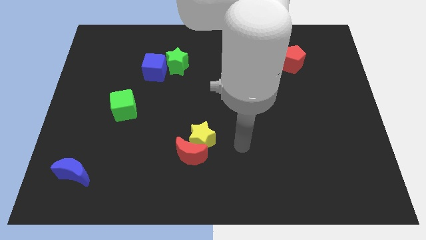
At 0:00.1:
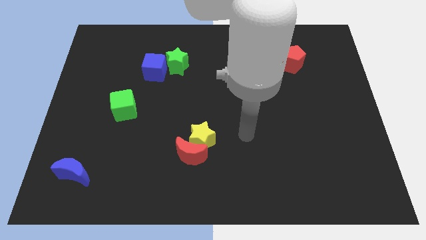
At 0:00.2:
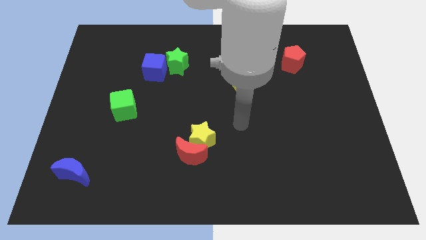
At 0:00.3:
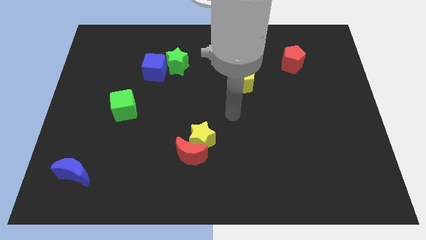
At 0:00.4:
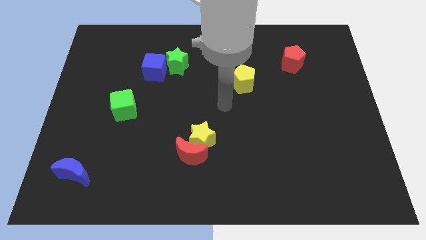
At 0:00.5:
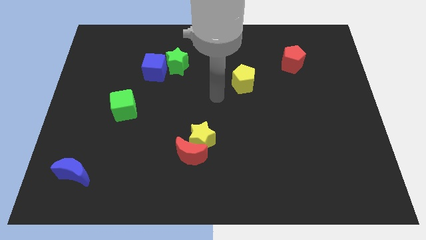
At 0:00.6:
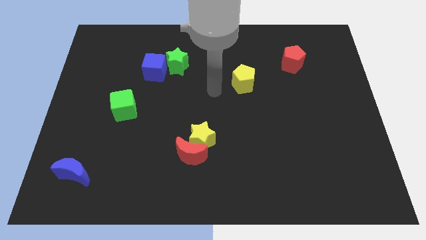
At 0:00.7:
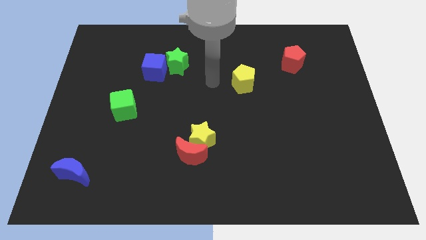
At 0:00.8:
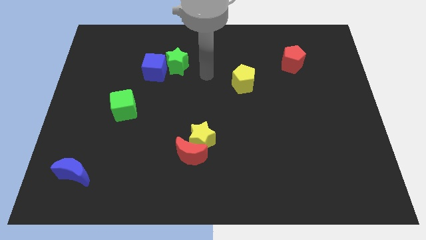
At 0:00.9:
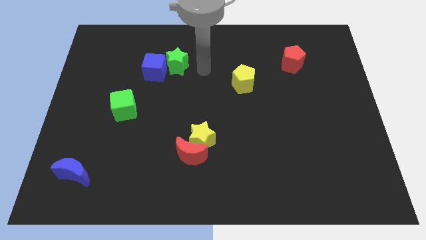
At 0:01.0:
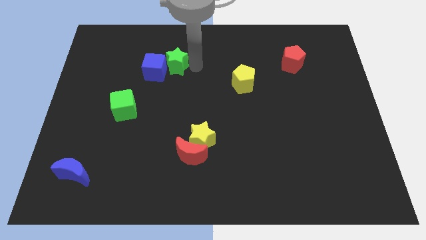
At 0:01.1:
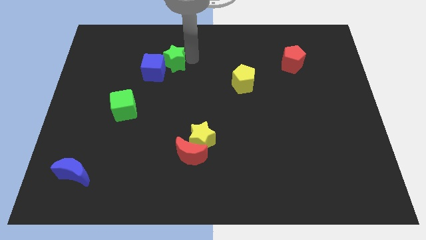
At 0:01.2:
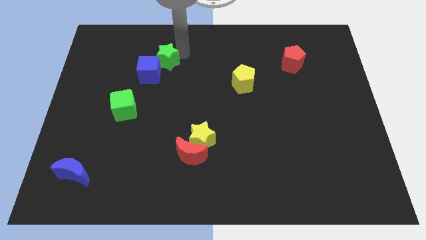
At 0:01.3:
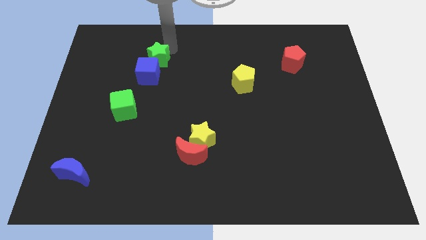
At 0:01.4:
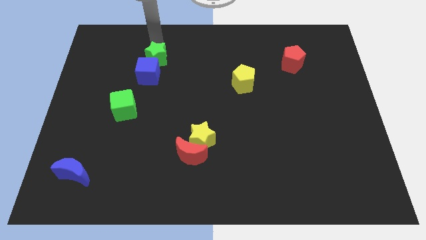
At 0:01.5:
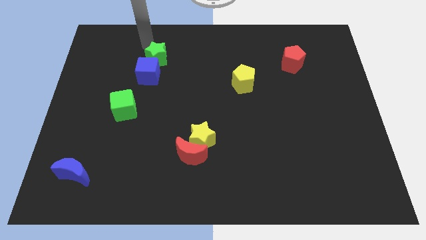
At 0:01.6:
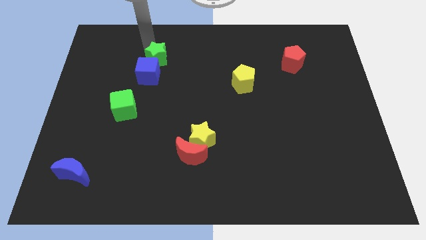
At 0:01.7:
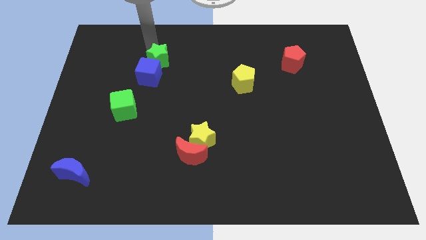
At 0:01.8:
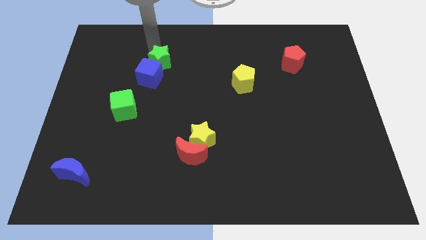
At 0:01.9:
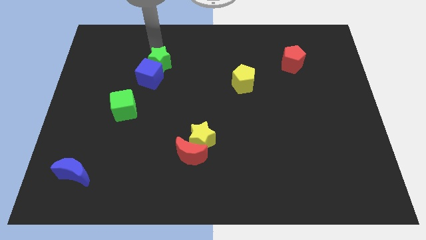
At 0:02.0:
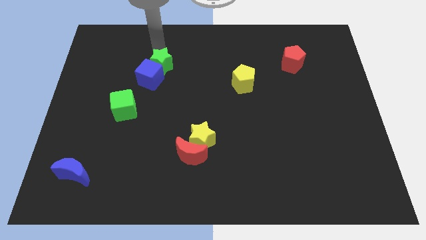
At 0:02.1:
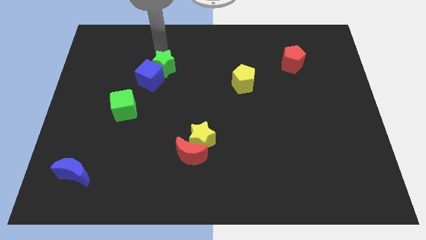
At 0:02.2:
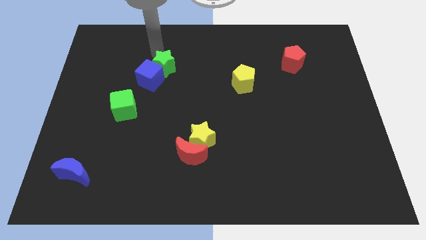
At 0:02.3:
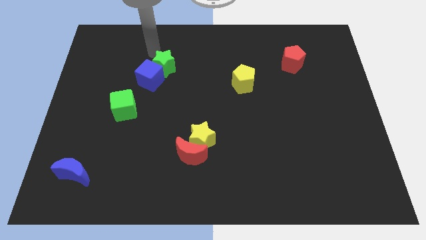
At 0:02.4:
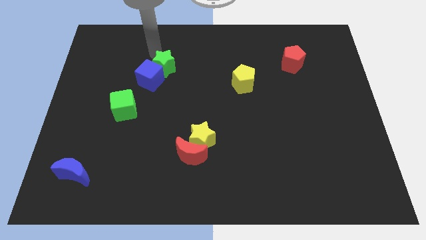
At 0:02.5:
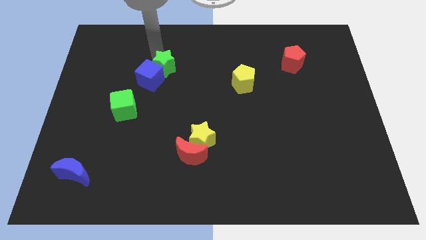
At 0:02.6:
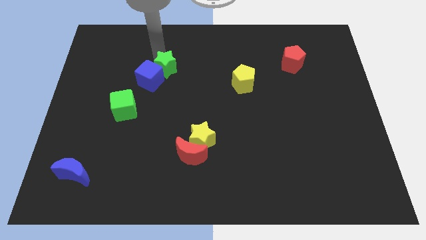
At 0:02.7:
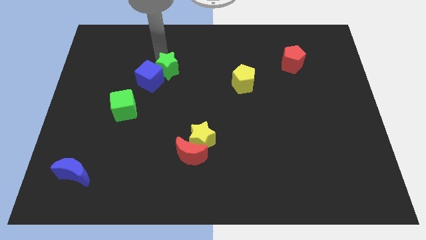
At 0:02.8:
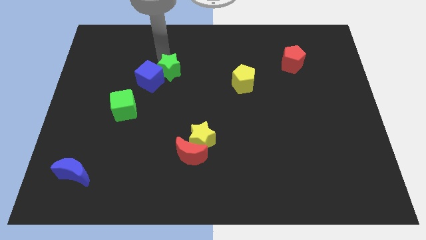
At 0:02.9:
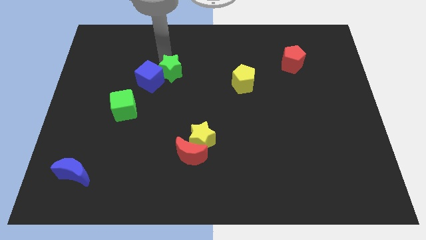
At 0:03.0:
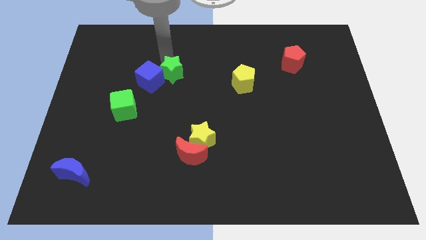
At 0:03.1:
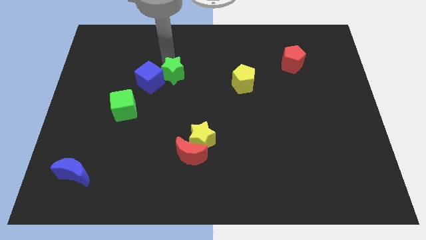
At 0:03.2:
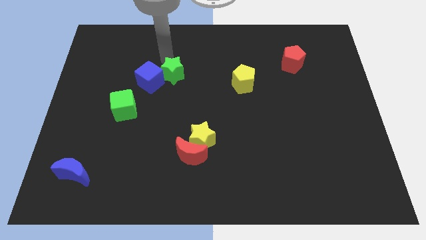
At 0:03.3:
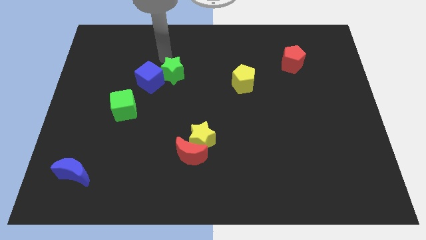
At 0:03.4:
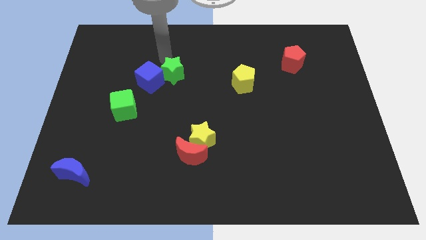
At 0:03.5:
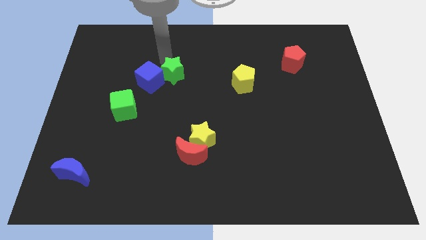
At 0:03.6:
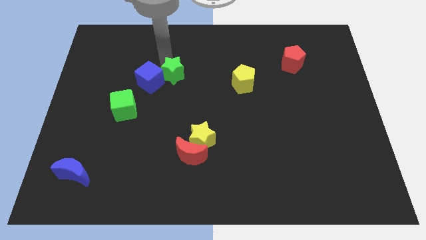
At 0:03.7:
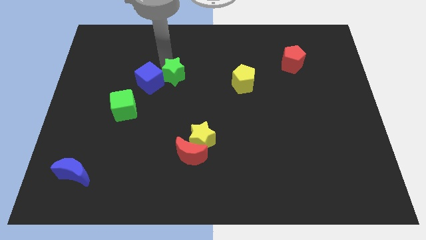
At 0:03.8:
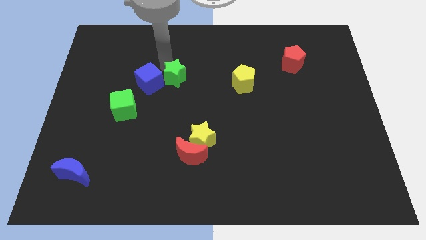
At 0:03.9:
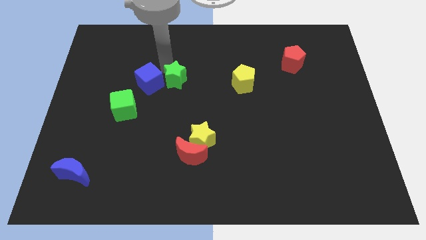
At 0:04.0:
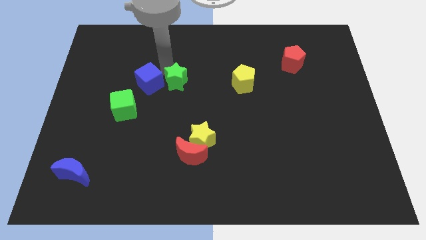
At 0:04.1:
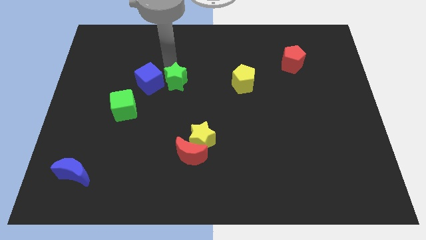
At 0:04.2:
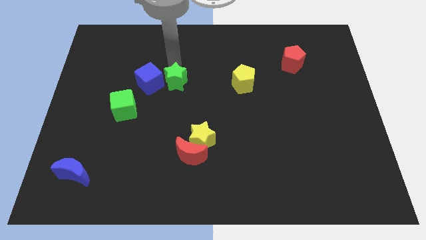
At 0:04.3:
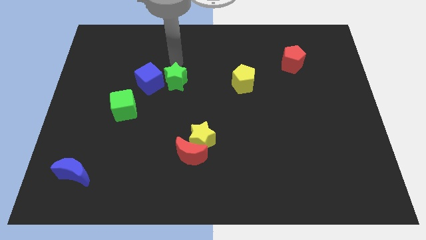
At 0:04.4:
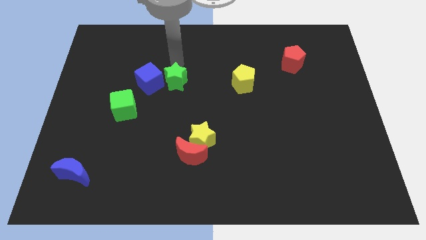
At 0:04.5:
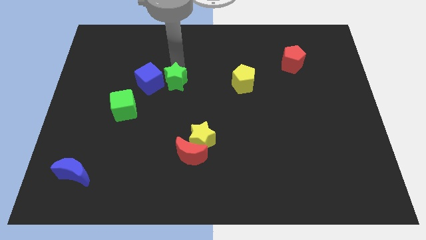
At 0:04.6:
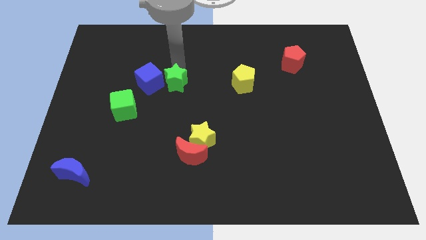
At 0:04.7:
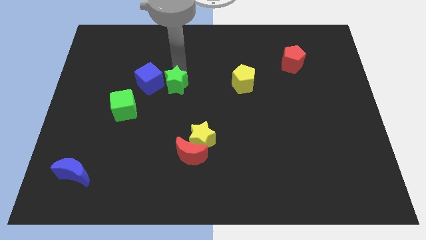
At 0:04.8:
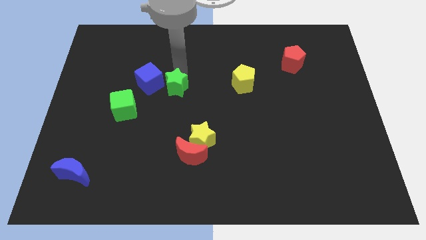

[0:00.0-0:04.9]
slightly push the green star down

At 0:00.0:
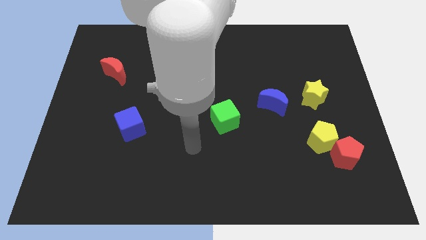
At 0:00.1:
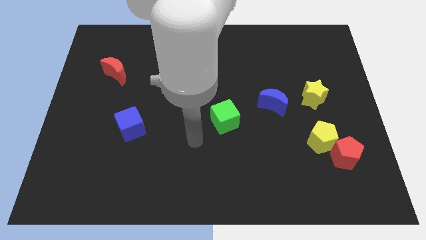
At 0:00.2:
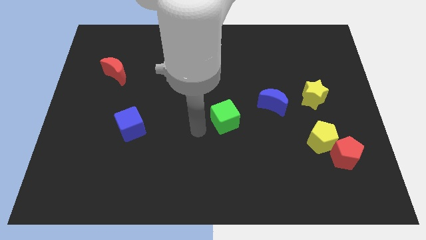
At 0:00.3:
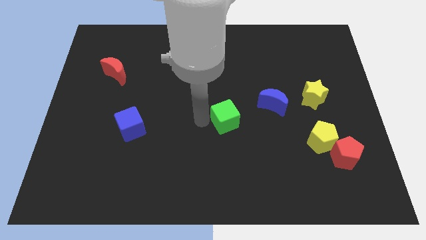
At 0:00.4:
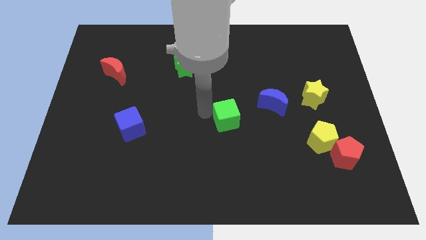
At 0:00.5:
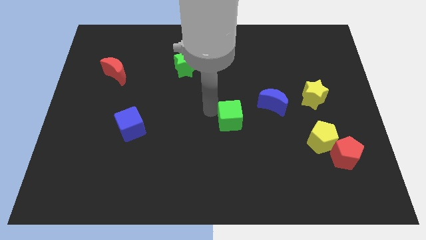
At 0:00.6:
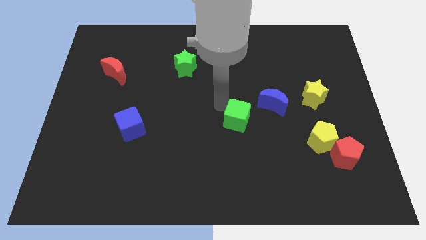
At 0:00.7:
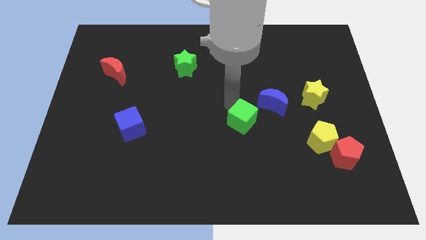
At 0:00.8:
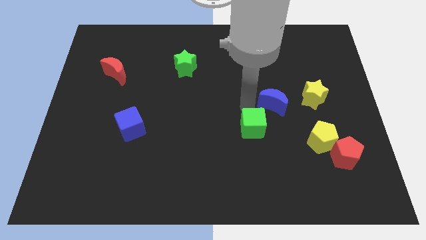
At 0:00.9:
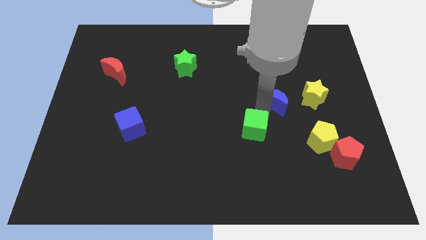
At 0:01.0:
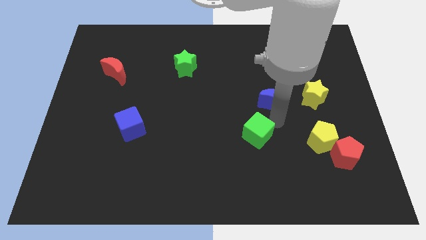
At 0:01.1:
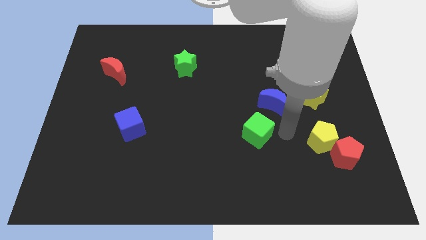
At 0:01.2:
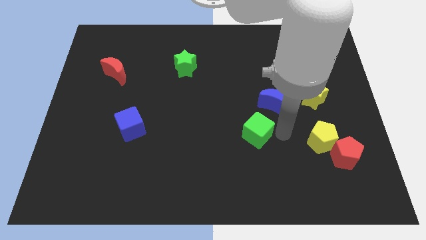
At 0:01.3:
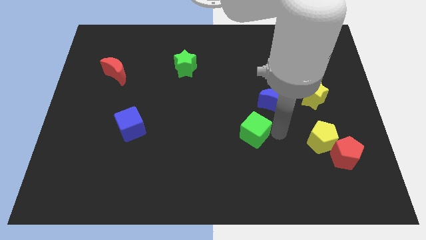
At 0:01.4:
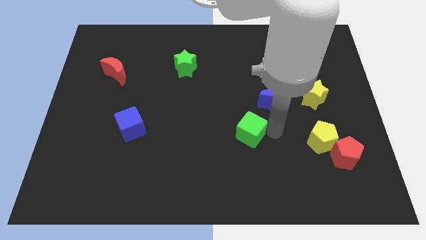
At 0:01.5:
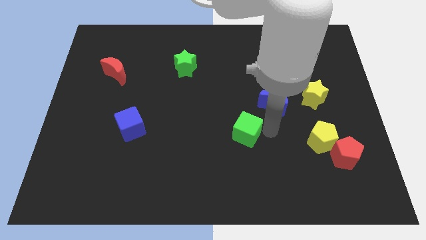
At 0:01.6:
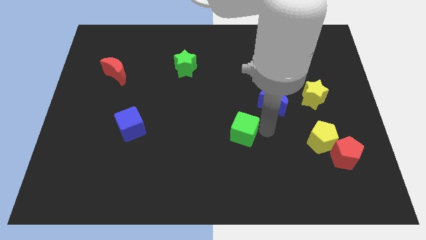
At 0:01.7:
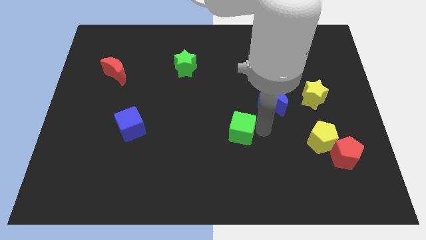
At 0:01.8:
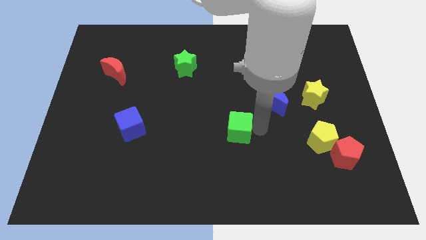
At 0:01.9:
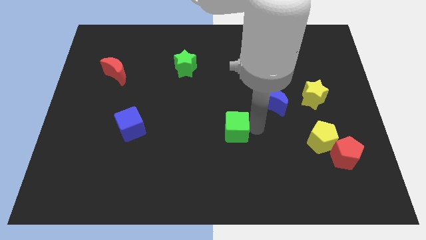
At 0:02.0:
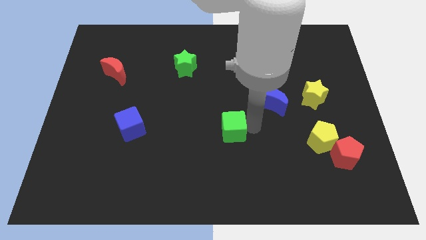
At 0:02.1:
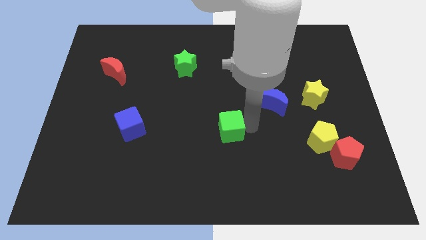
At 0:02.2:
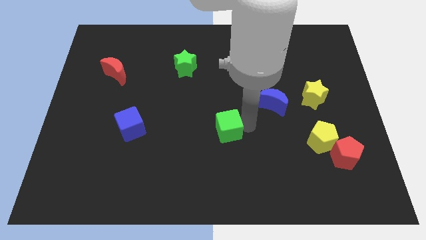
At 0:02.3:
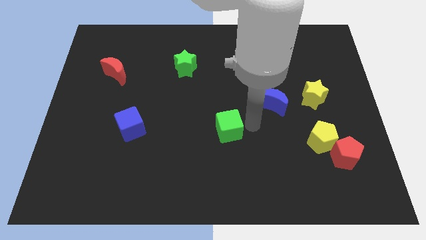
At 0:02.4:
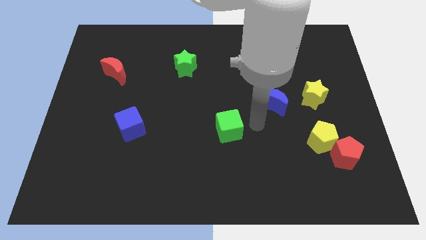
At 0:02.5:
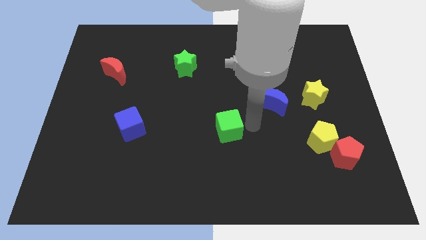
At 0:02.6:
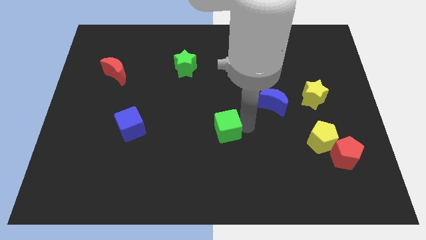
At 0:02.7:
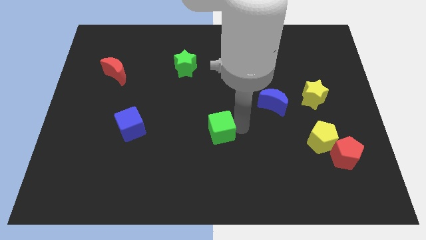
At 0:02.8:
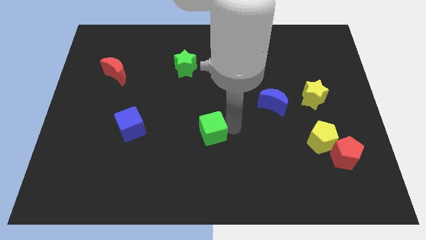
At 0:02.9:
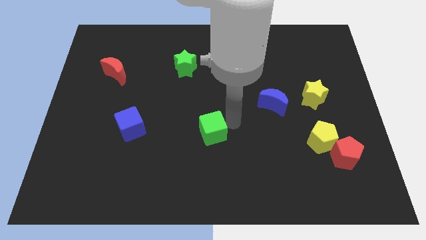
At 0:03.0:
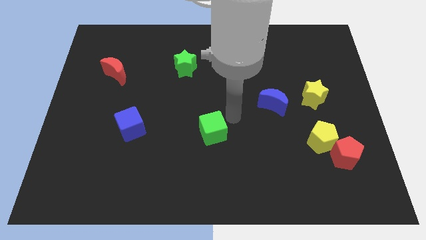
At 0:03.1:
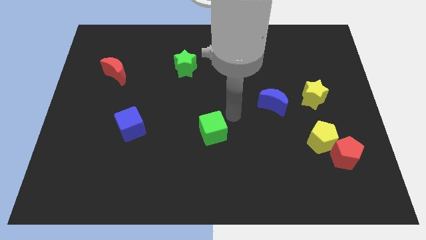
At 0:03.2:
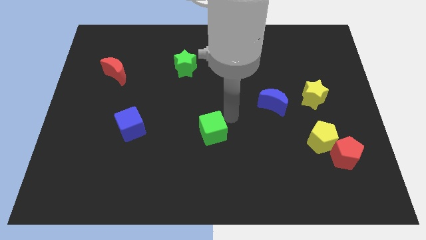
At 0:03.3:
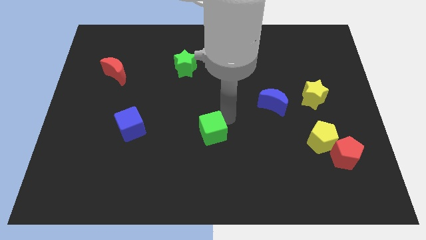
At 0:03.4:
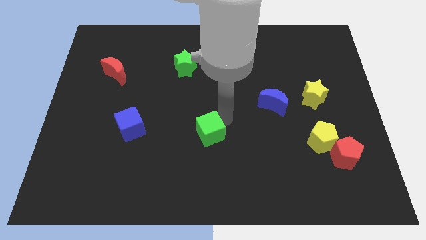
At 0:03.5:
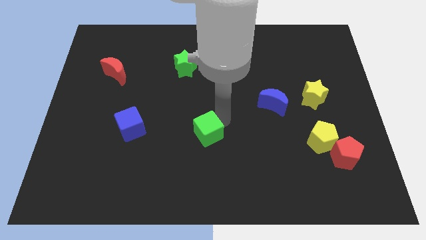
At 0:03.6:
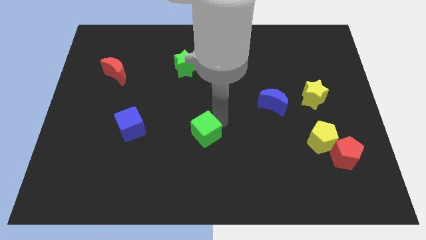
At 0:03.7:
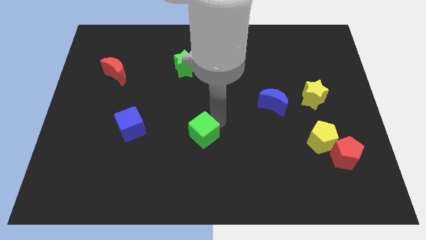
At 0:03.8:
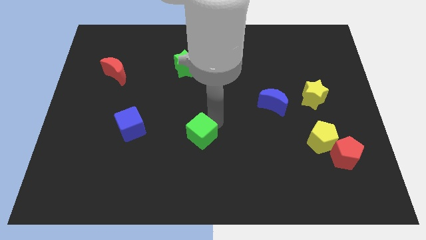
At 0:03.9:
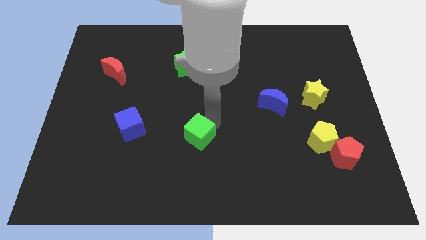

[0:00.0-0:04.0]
push the green cube a bit diagonally down and to the left
